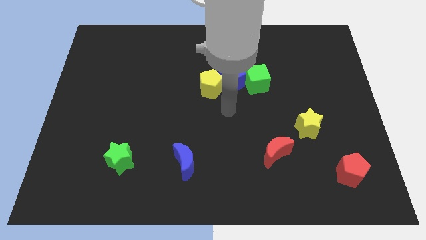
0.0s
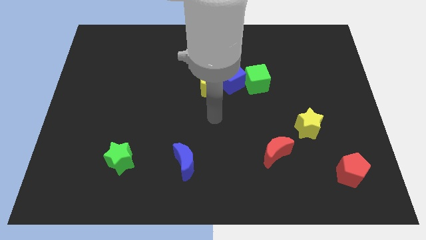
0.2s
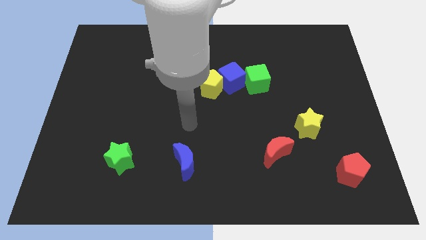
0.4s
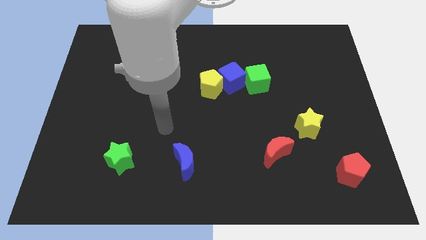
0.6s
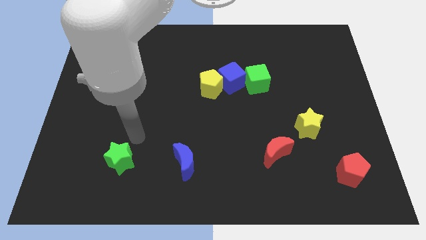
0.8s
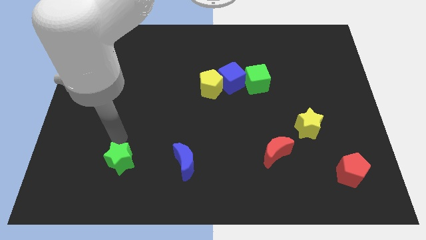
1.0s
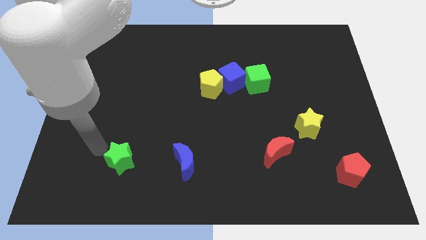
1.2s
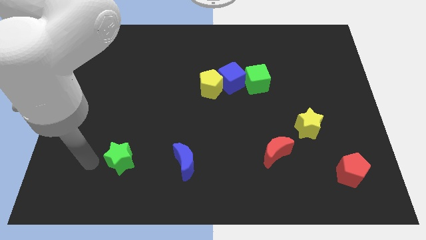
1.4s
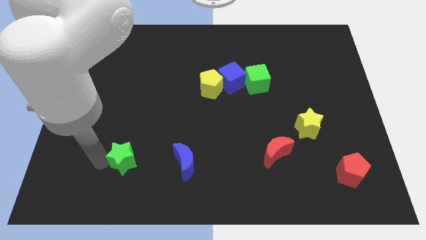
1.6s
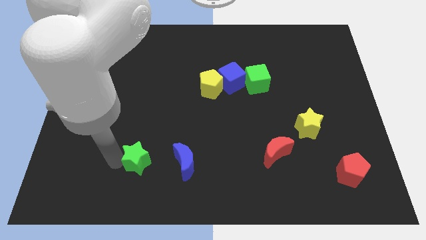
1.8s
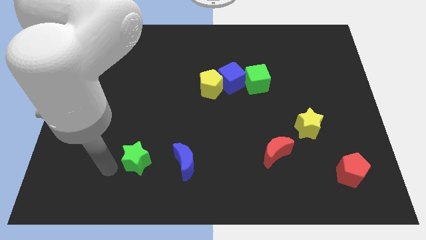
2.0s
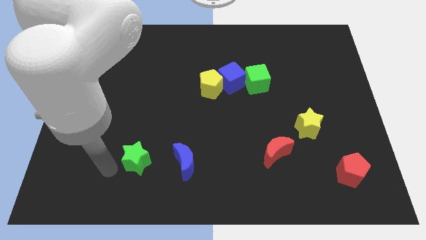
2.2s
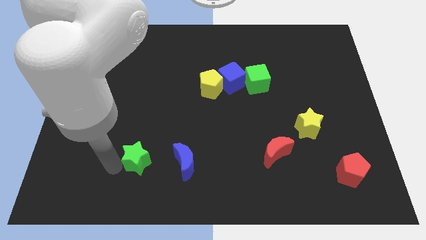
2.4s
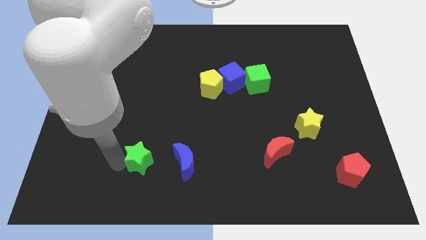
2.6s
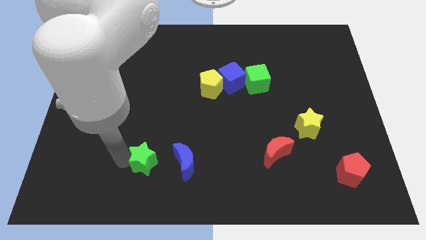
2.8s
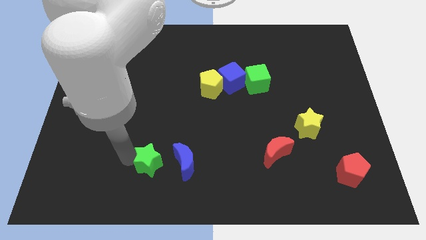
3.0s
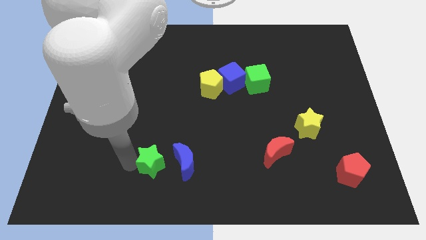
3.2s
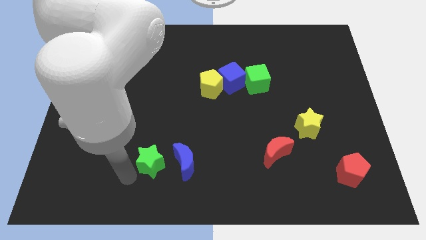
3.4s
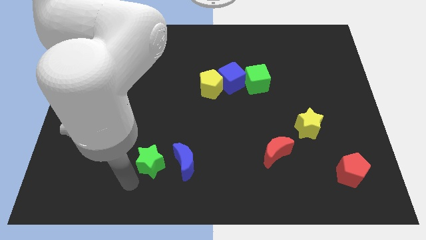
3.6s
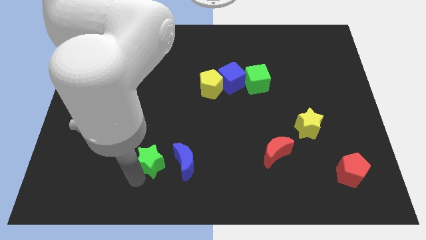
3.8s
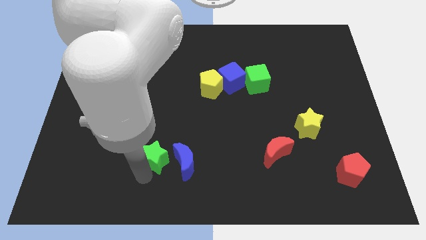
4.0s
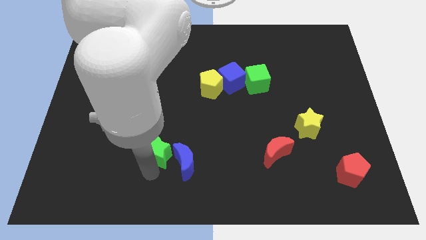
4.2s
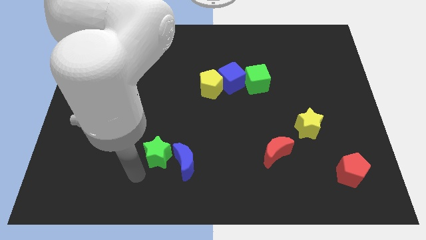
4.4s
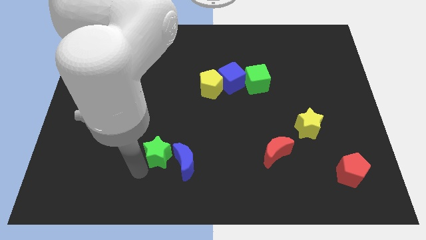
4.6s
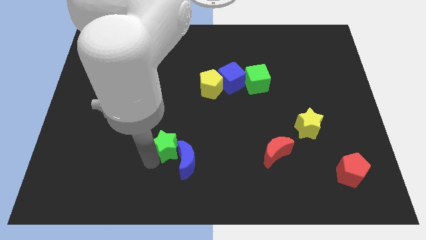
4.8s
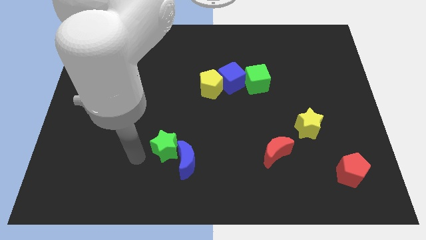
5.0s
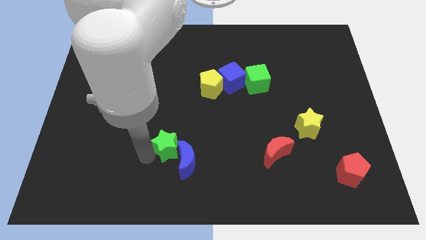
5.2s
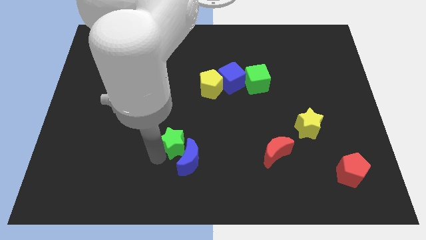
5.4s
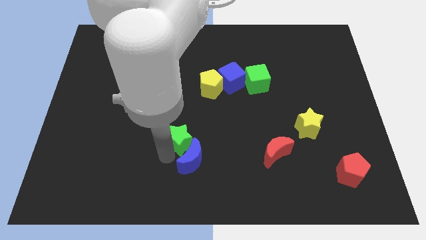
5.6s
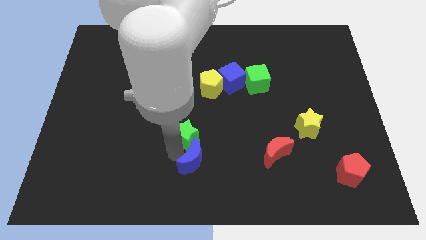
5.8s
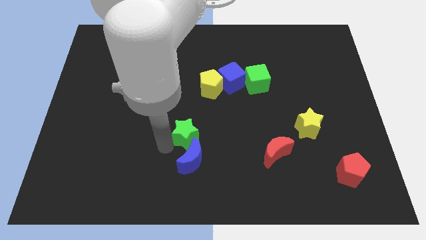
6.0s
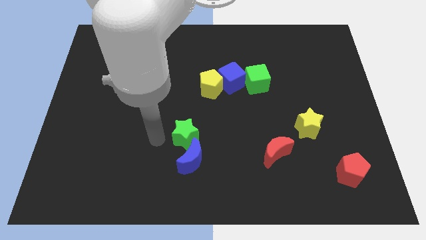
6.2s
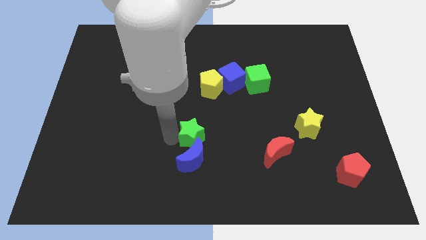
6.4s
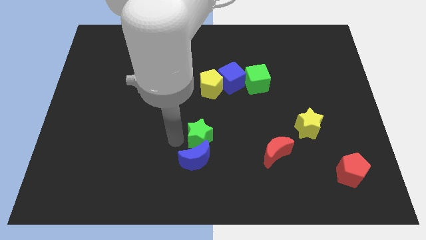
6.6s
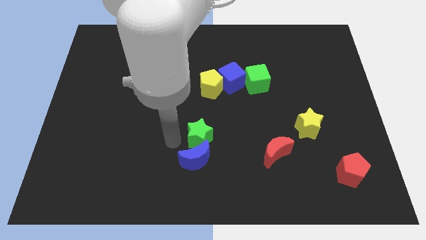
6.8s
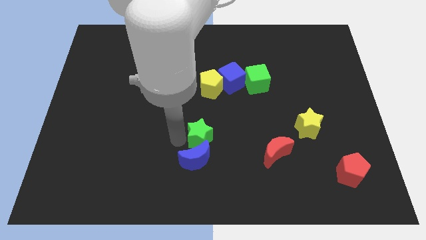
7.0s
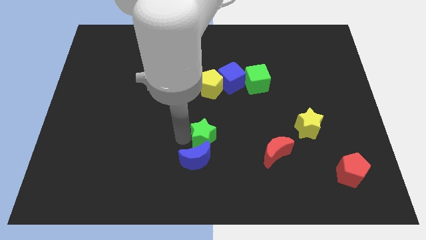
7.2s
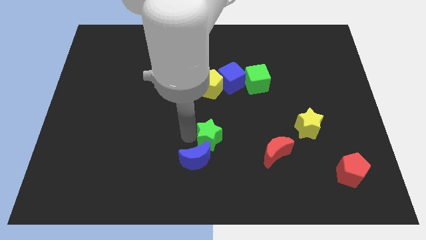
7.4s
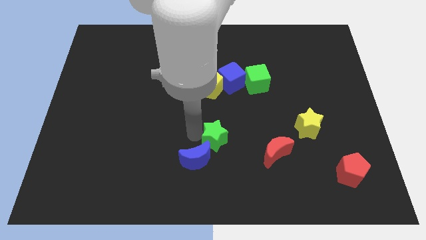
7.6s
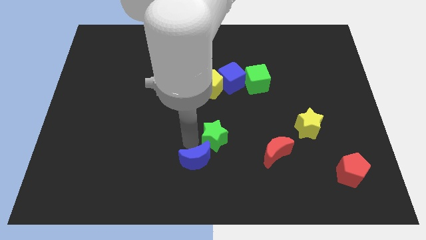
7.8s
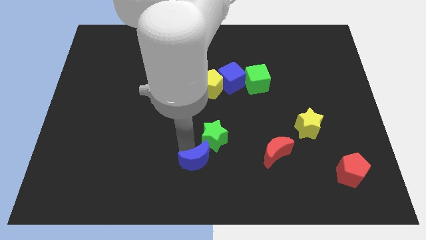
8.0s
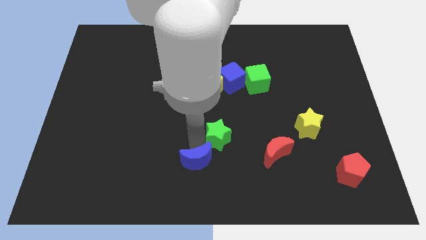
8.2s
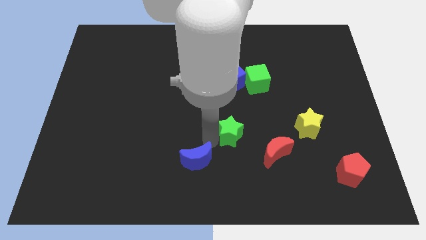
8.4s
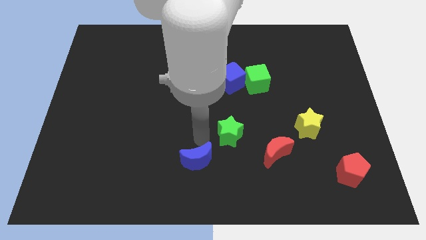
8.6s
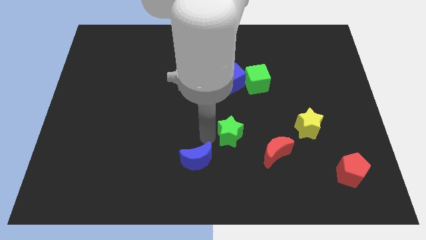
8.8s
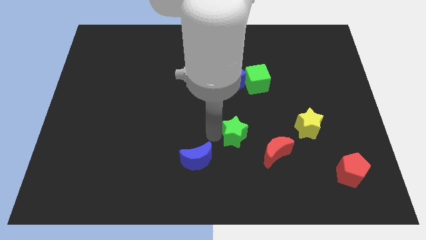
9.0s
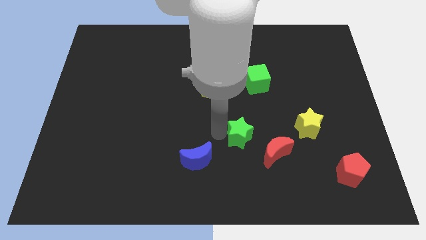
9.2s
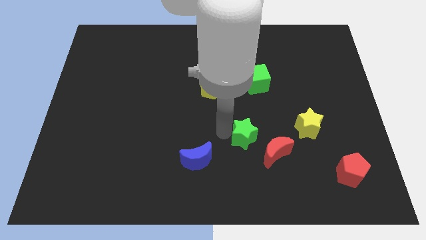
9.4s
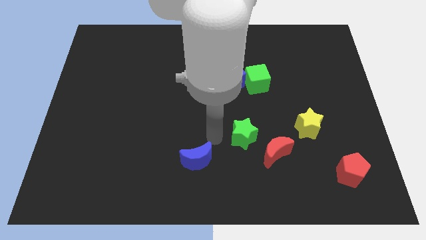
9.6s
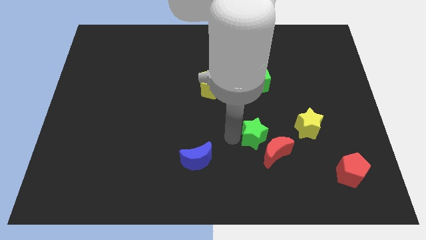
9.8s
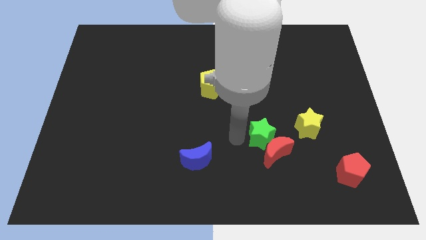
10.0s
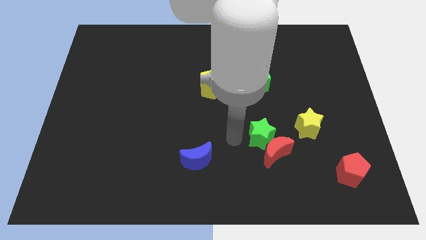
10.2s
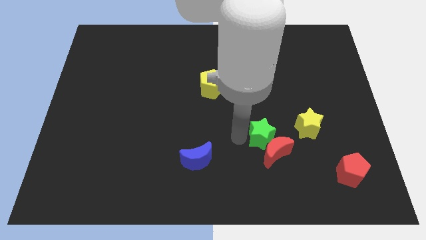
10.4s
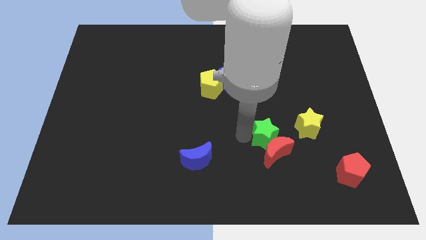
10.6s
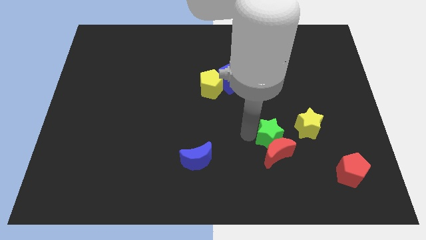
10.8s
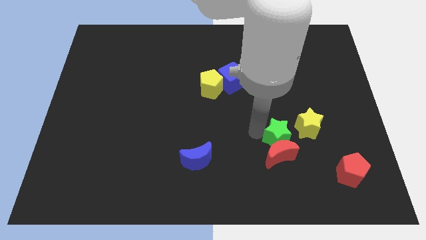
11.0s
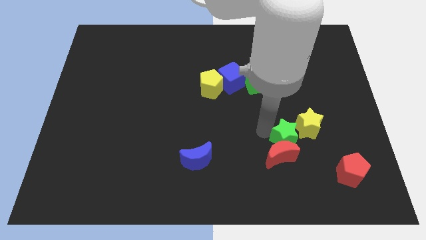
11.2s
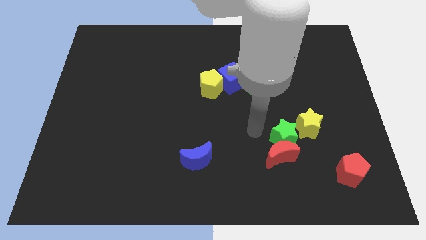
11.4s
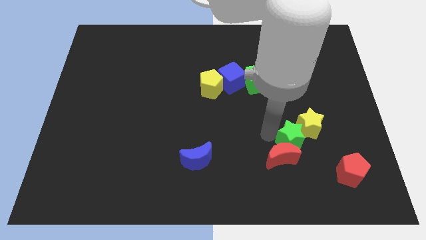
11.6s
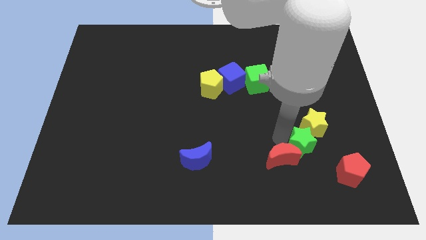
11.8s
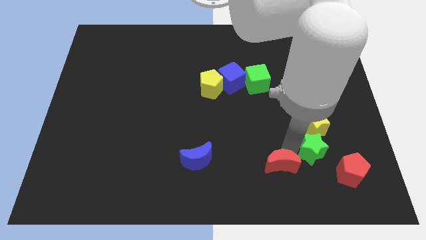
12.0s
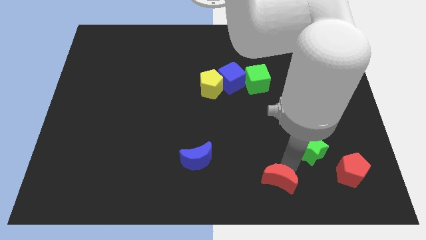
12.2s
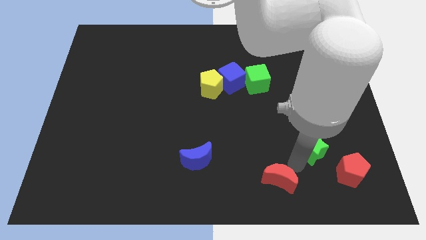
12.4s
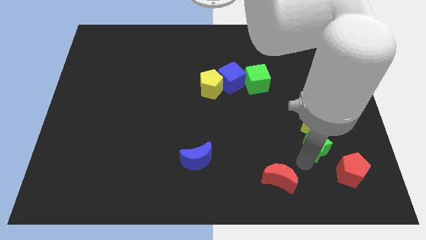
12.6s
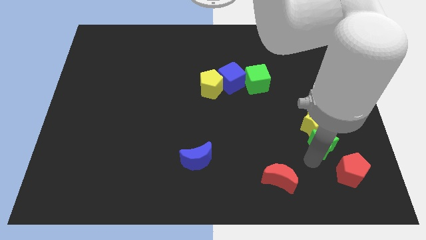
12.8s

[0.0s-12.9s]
slide the green star to the top of the red pentagon
